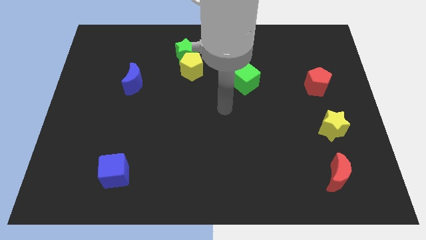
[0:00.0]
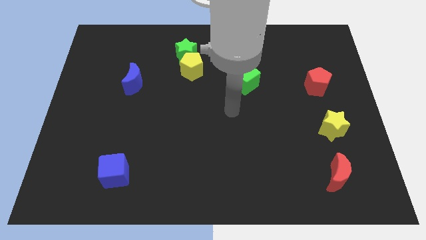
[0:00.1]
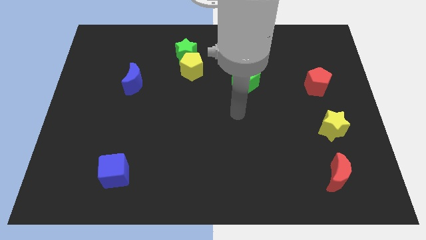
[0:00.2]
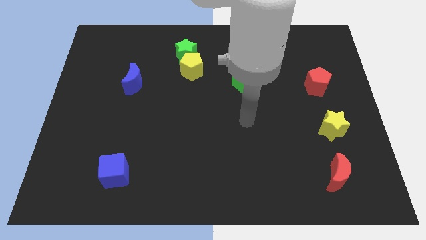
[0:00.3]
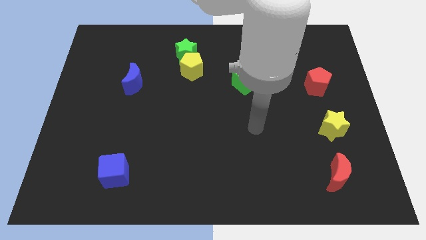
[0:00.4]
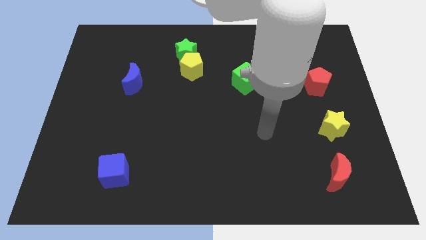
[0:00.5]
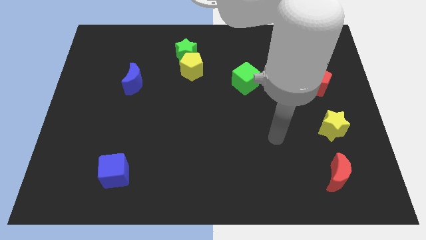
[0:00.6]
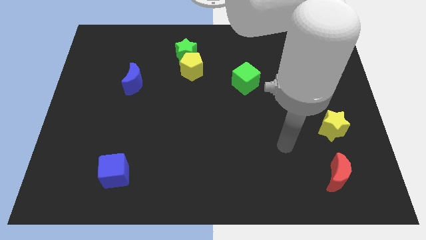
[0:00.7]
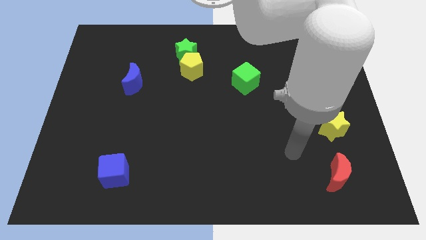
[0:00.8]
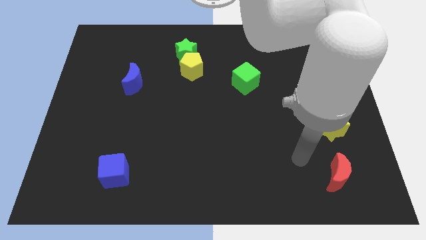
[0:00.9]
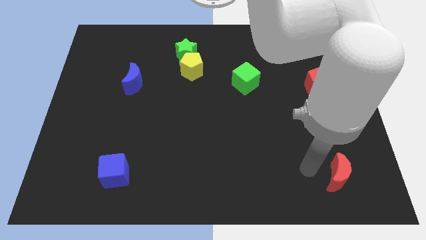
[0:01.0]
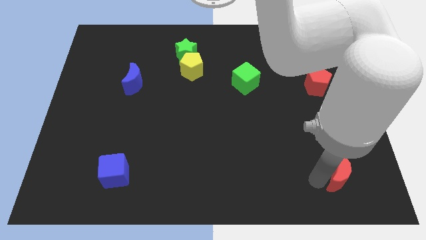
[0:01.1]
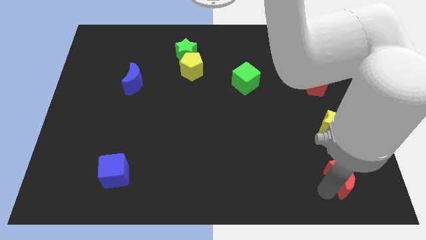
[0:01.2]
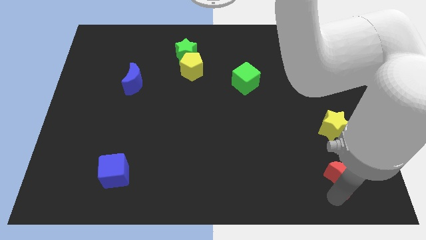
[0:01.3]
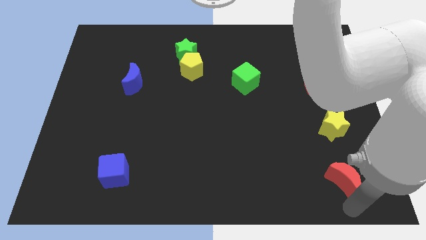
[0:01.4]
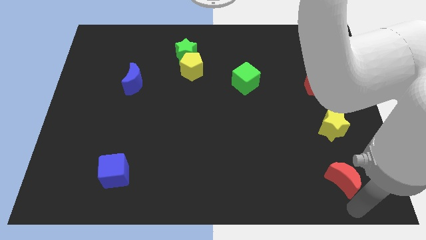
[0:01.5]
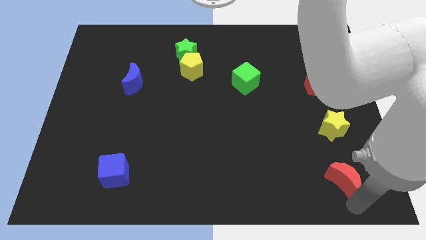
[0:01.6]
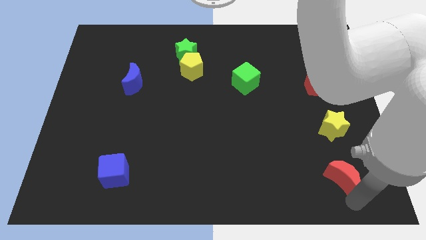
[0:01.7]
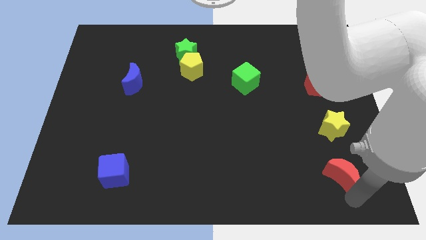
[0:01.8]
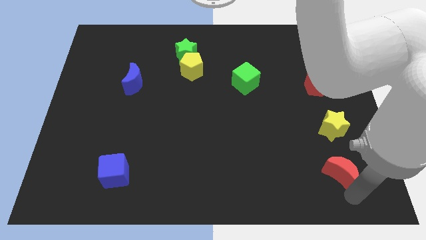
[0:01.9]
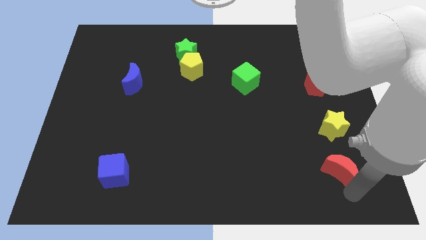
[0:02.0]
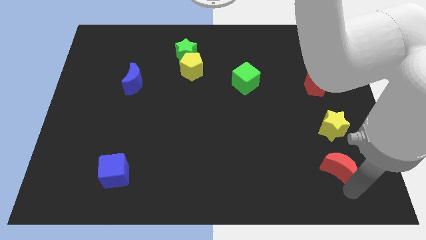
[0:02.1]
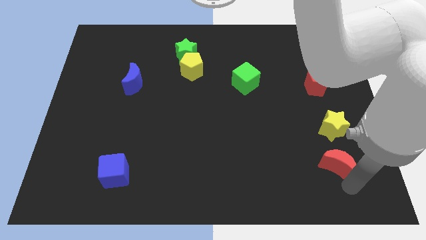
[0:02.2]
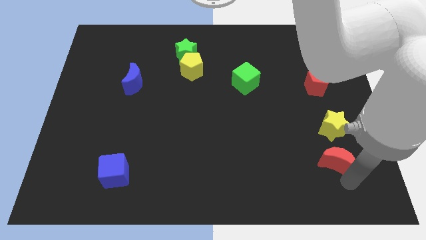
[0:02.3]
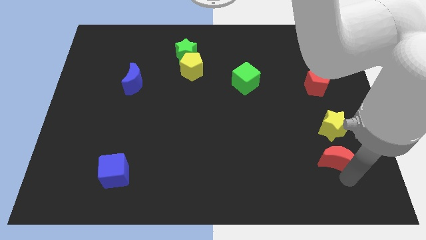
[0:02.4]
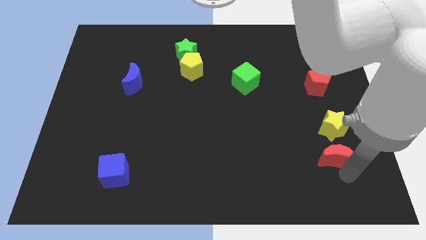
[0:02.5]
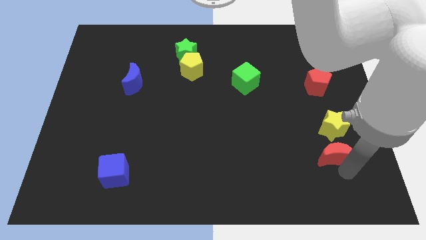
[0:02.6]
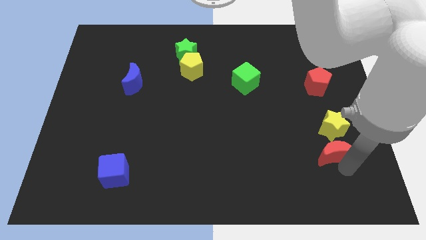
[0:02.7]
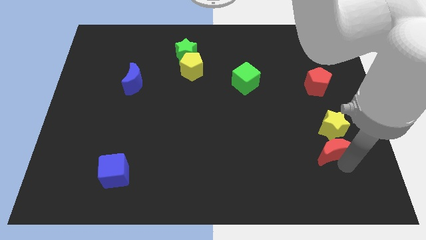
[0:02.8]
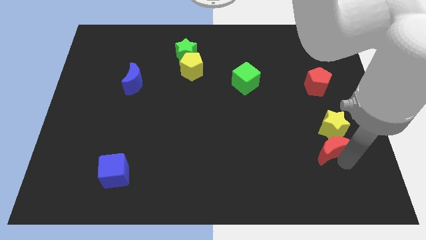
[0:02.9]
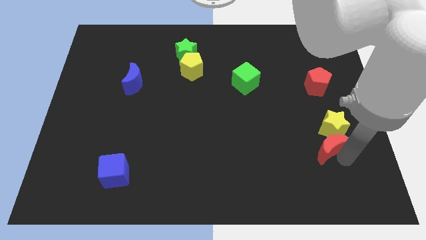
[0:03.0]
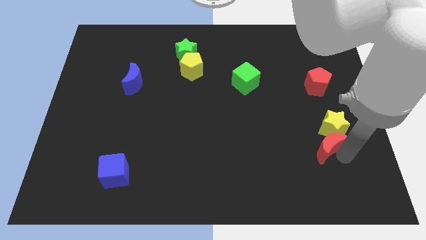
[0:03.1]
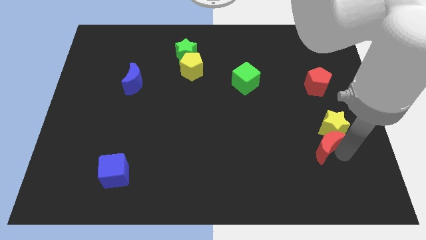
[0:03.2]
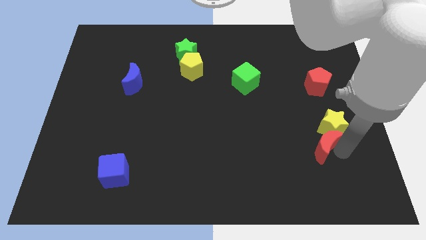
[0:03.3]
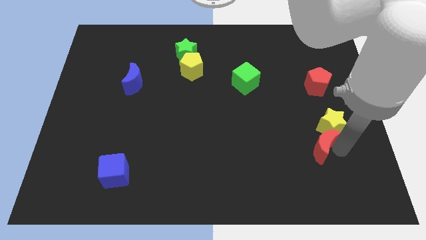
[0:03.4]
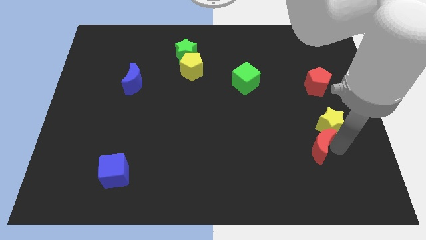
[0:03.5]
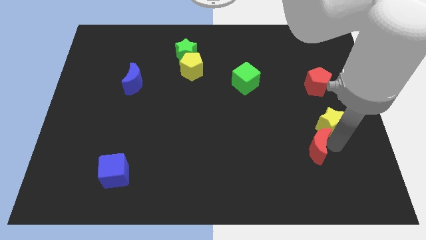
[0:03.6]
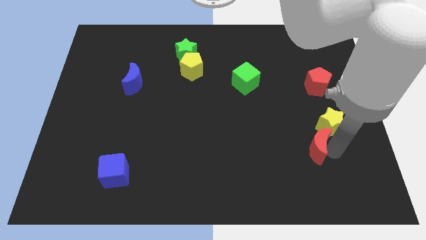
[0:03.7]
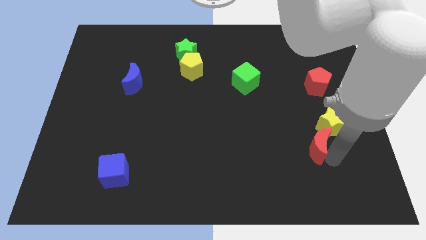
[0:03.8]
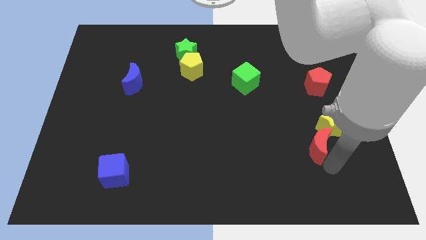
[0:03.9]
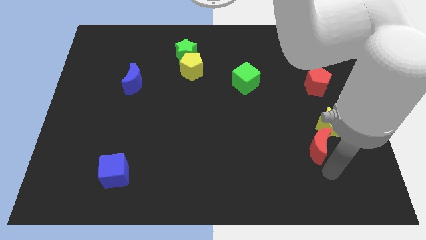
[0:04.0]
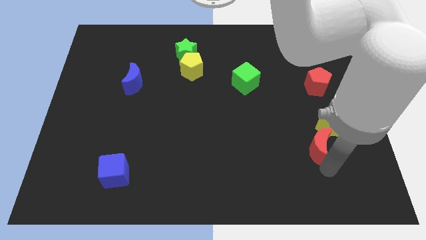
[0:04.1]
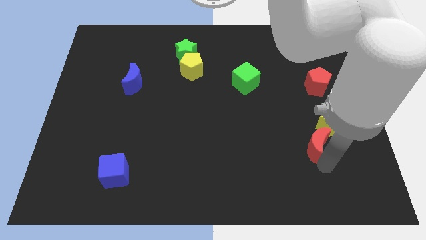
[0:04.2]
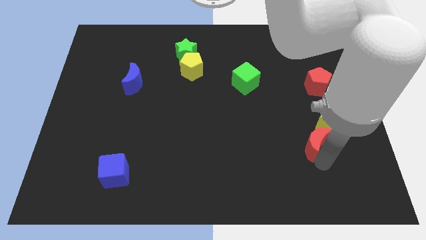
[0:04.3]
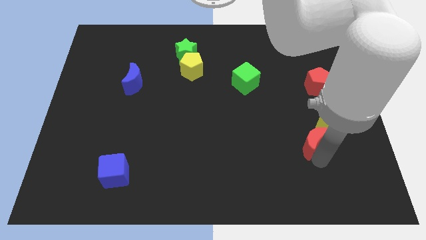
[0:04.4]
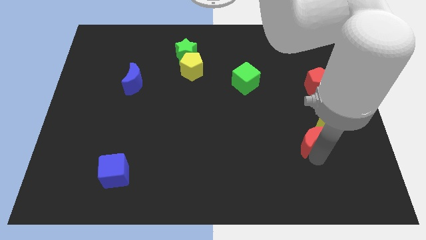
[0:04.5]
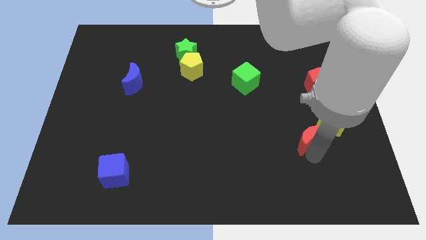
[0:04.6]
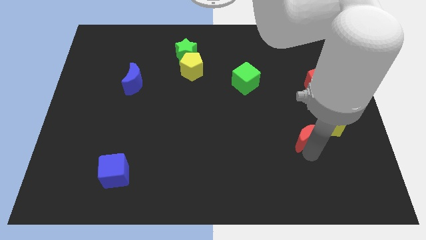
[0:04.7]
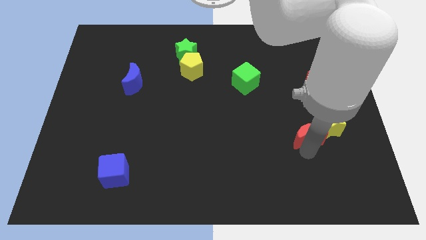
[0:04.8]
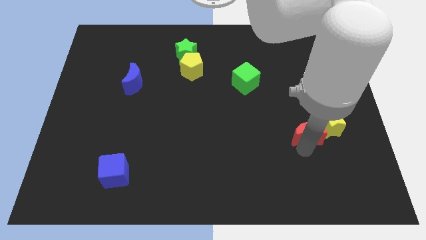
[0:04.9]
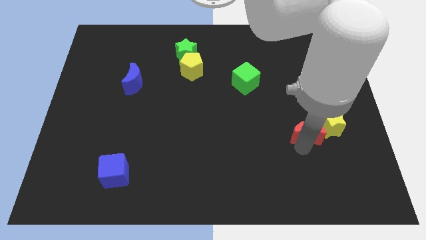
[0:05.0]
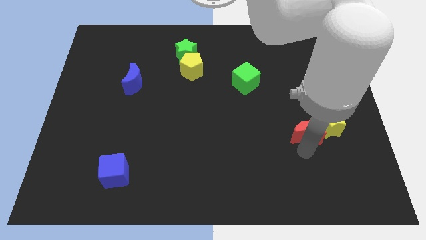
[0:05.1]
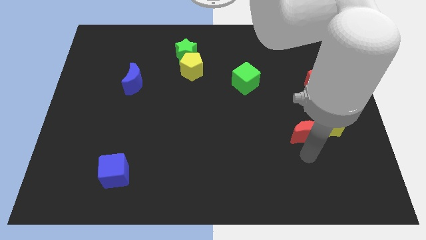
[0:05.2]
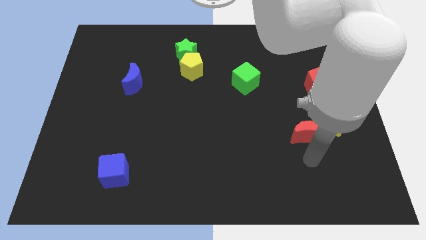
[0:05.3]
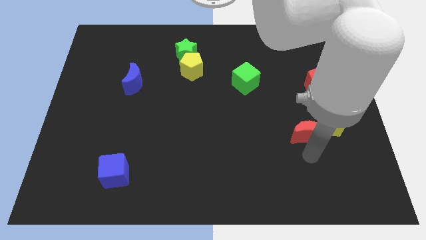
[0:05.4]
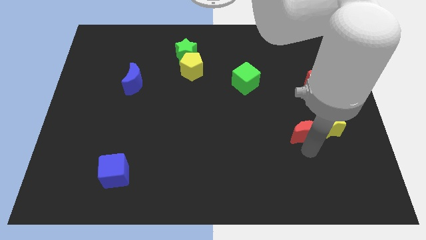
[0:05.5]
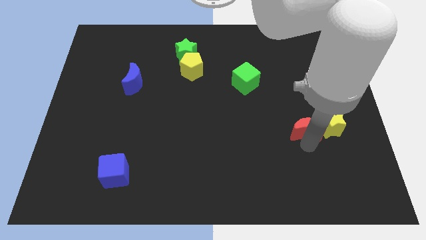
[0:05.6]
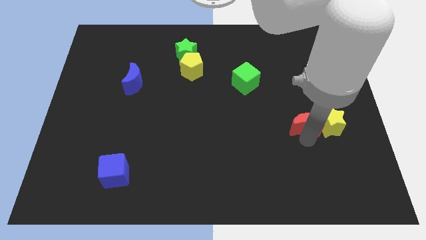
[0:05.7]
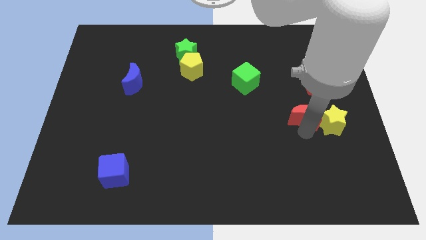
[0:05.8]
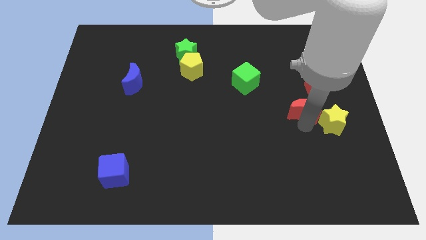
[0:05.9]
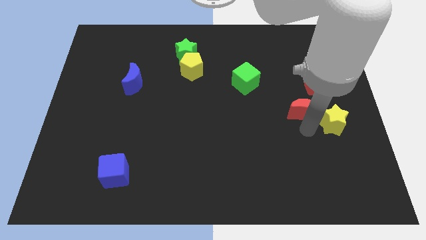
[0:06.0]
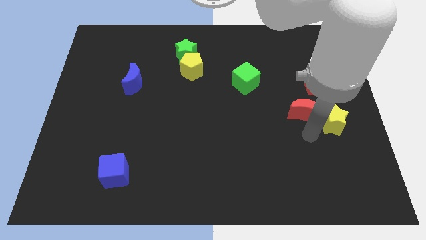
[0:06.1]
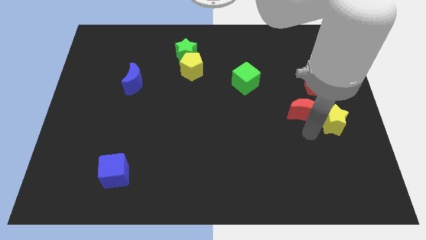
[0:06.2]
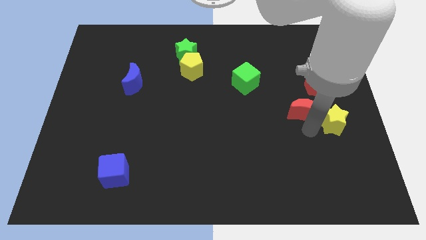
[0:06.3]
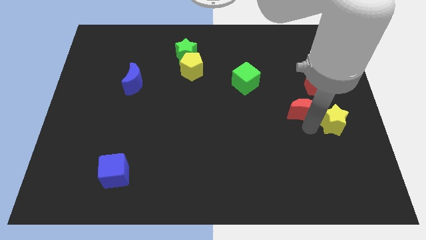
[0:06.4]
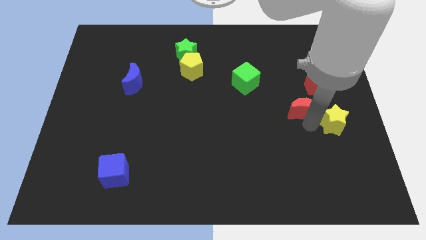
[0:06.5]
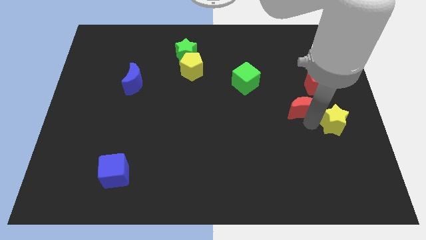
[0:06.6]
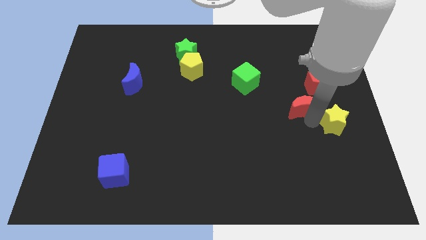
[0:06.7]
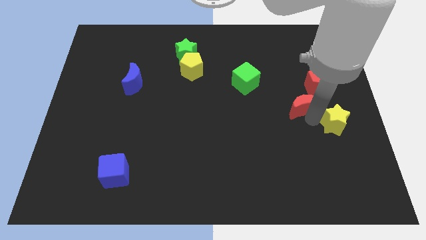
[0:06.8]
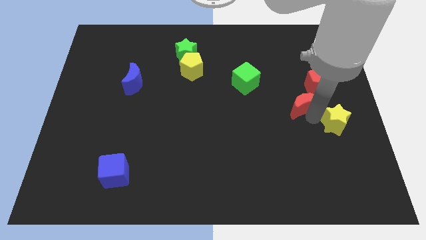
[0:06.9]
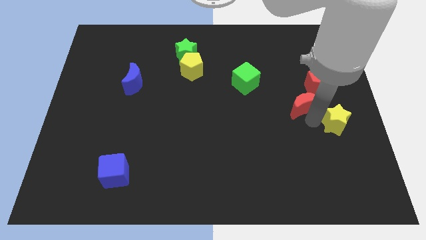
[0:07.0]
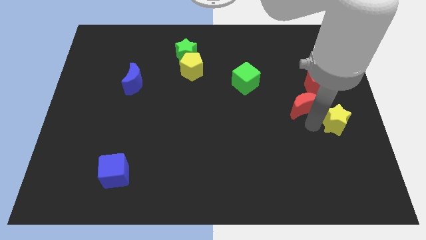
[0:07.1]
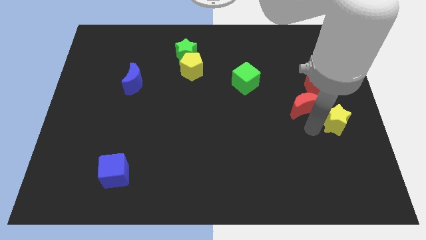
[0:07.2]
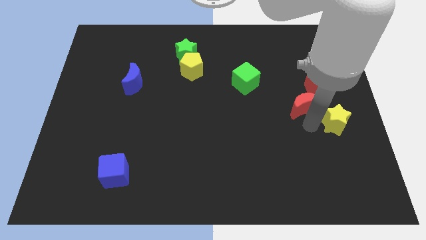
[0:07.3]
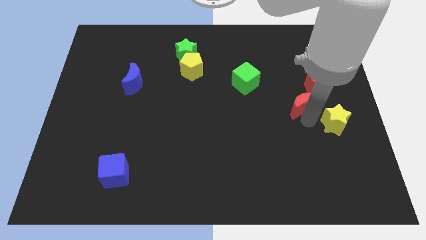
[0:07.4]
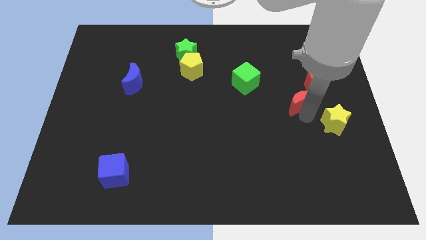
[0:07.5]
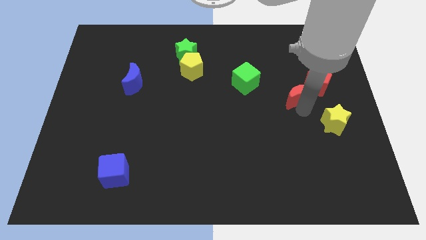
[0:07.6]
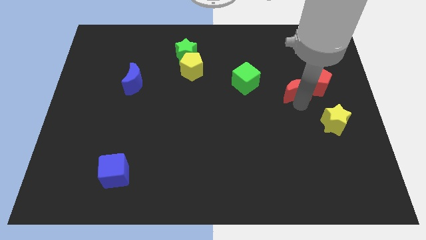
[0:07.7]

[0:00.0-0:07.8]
push the red moon upwards

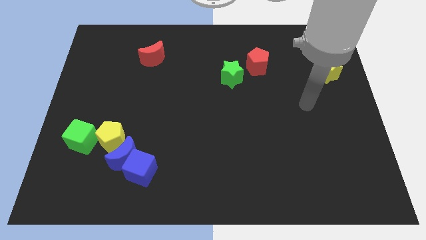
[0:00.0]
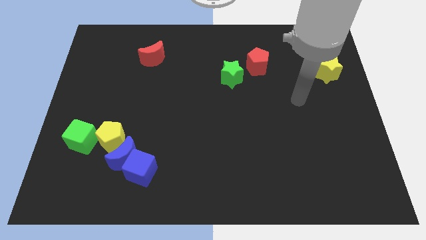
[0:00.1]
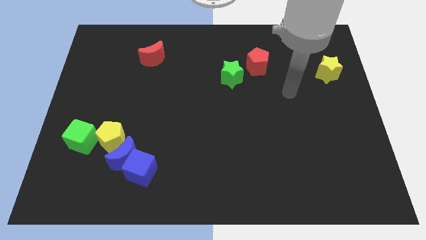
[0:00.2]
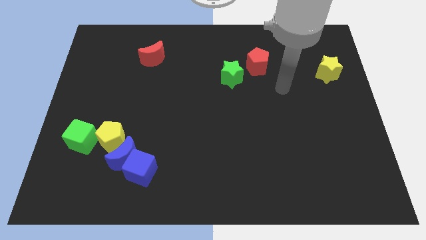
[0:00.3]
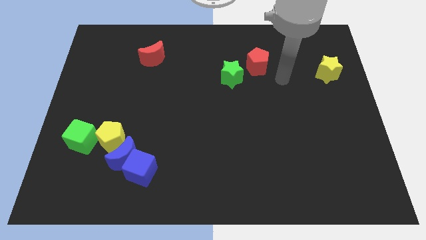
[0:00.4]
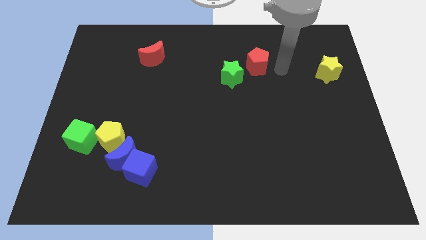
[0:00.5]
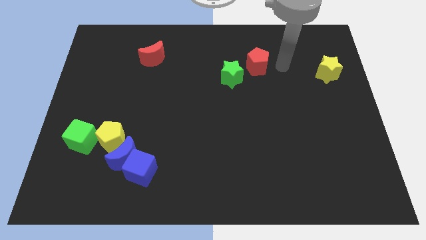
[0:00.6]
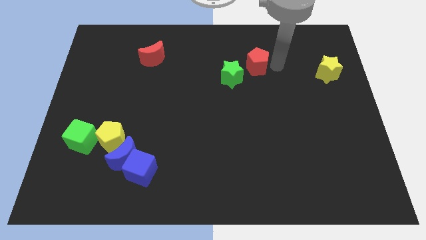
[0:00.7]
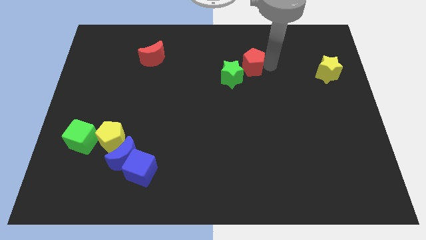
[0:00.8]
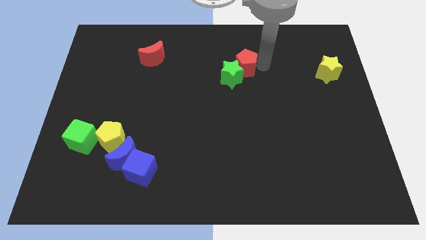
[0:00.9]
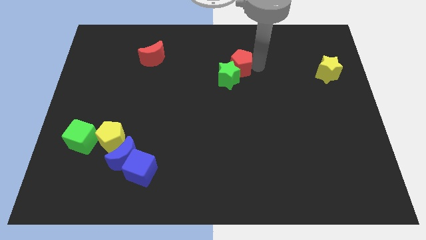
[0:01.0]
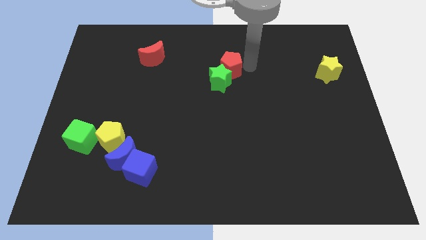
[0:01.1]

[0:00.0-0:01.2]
slightly move the red pentagon to the left
